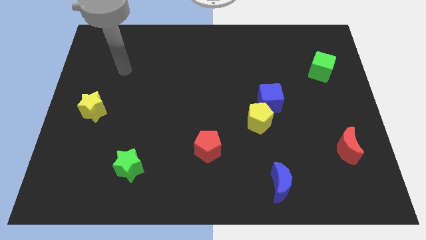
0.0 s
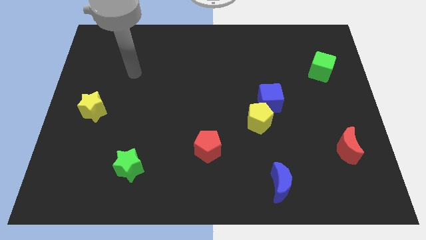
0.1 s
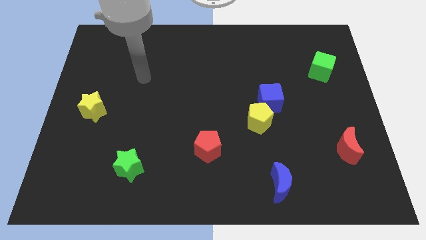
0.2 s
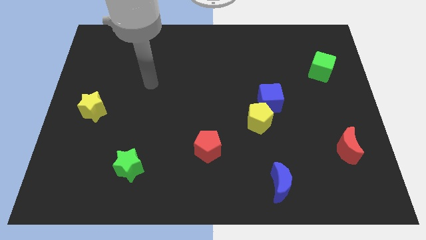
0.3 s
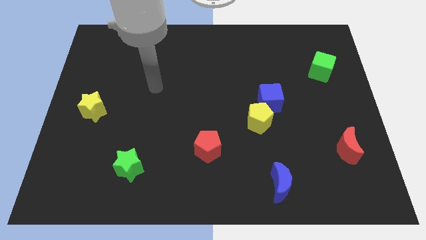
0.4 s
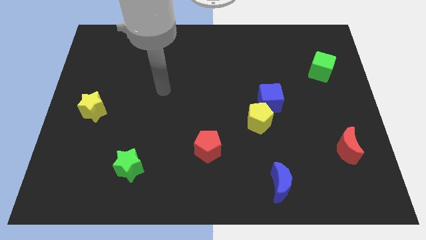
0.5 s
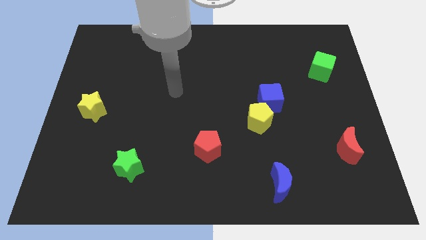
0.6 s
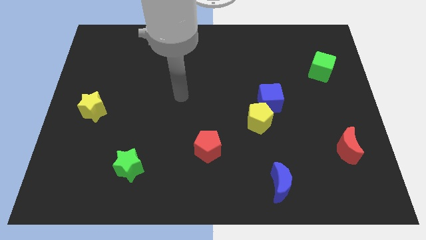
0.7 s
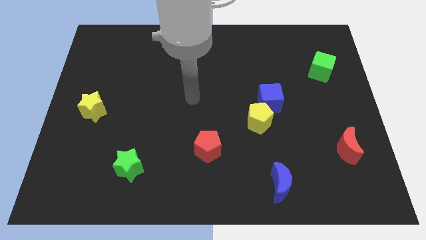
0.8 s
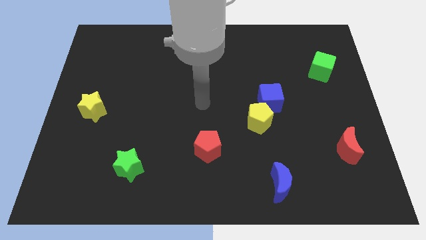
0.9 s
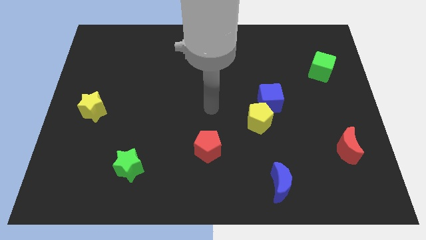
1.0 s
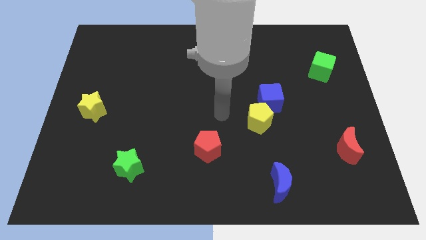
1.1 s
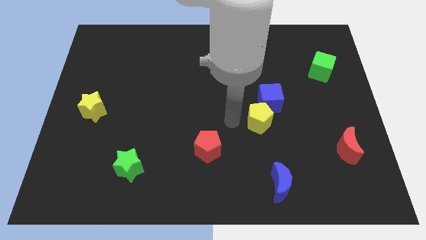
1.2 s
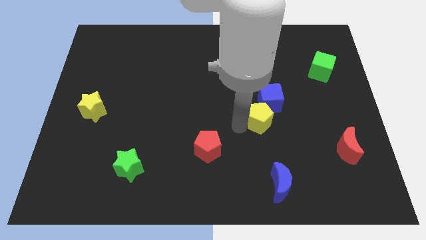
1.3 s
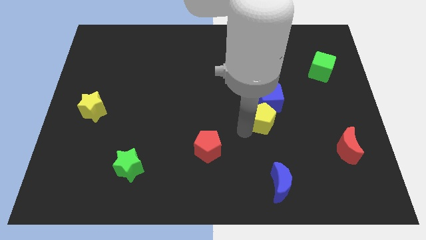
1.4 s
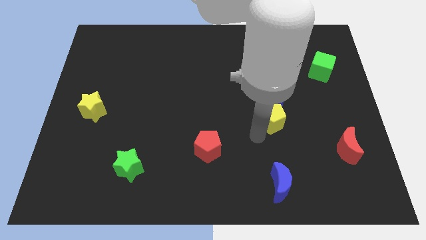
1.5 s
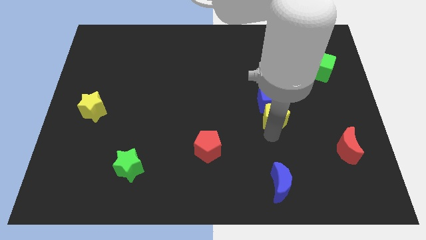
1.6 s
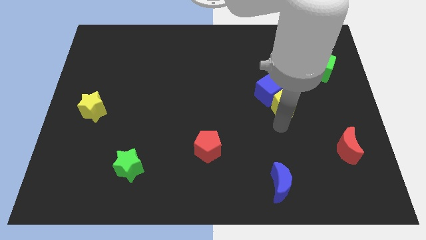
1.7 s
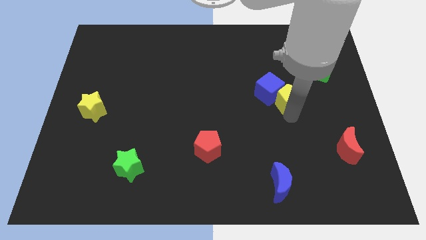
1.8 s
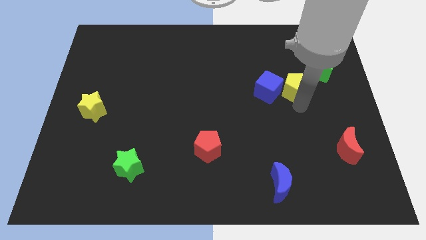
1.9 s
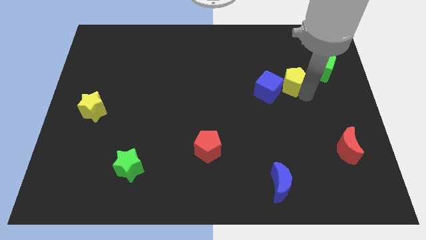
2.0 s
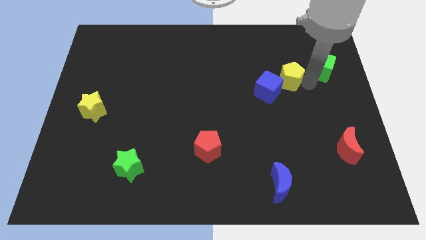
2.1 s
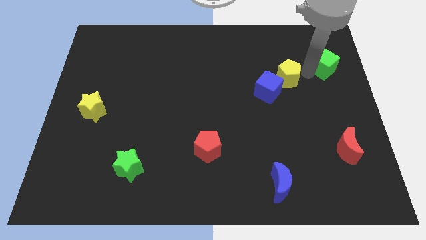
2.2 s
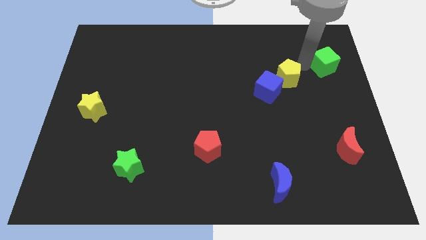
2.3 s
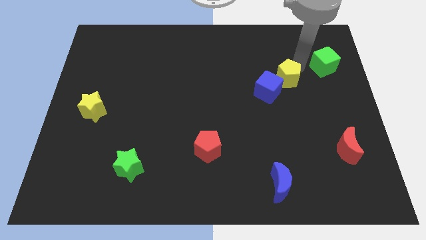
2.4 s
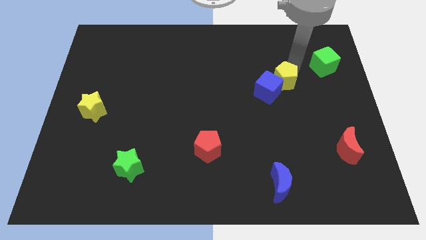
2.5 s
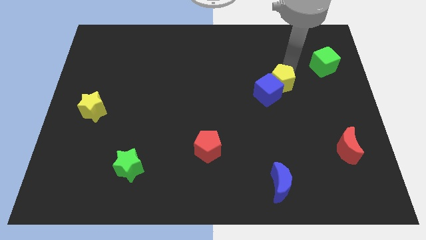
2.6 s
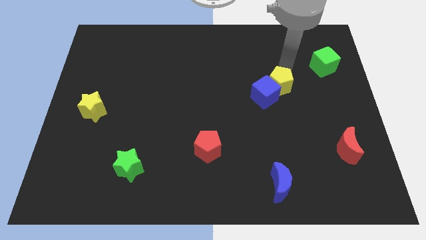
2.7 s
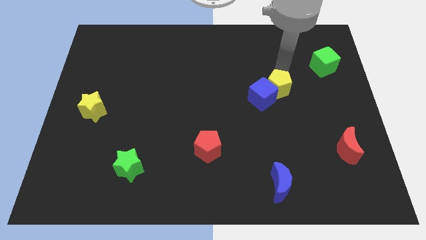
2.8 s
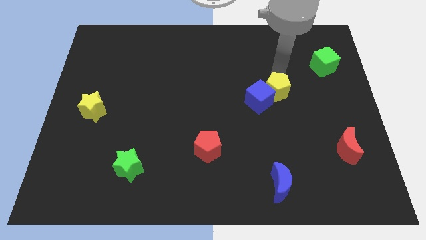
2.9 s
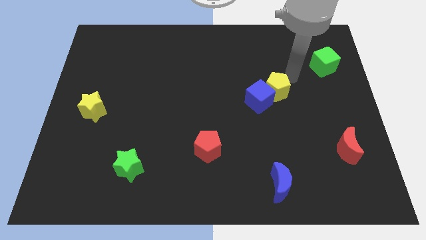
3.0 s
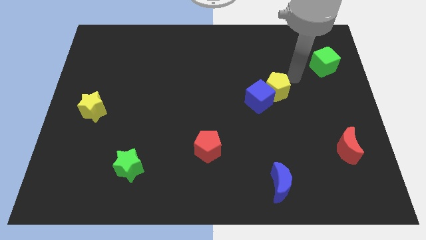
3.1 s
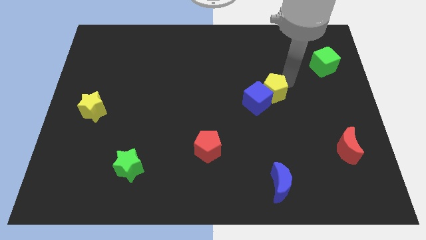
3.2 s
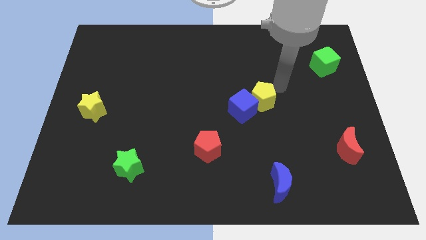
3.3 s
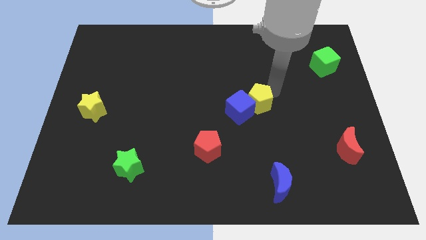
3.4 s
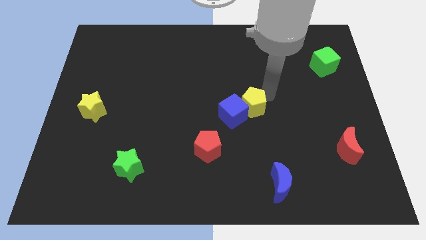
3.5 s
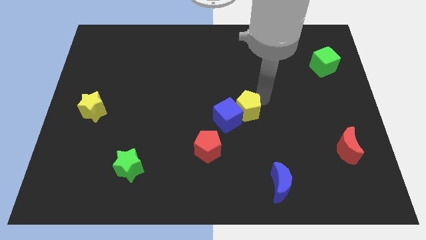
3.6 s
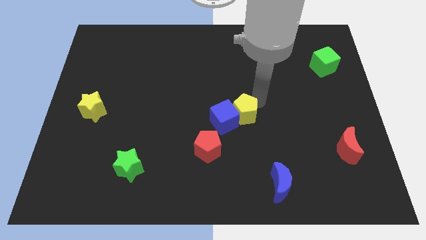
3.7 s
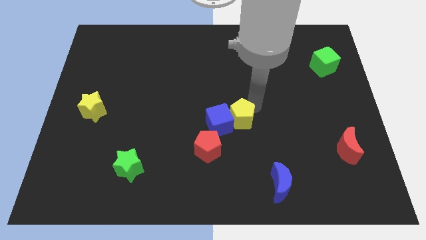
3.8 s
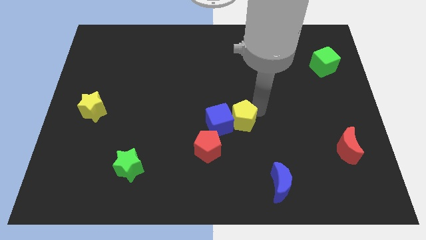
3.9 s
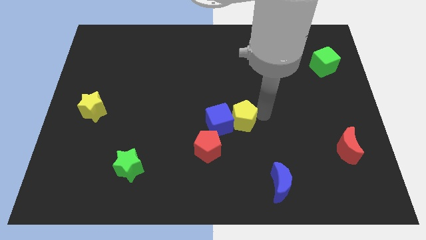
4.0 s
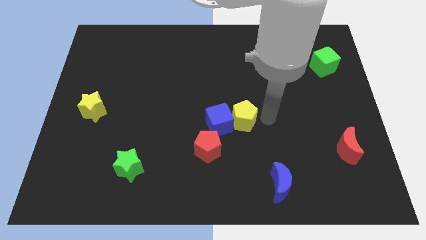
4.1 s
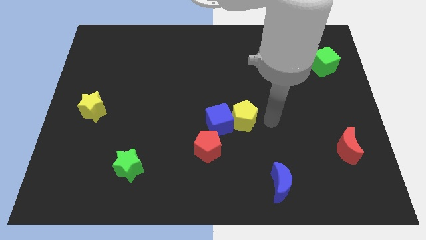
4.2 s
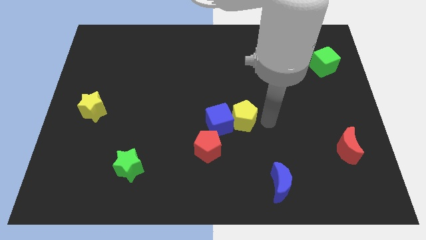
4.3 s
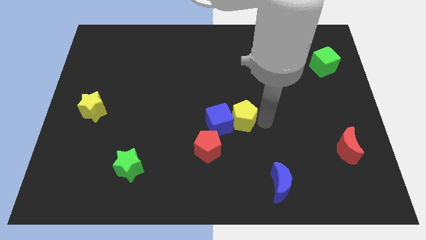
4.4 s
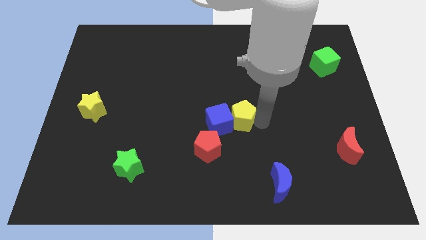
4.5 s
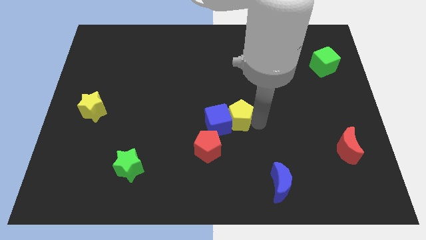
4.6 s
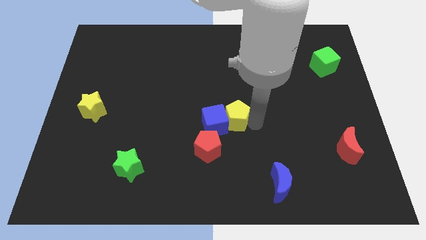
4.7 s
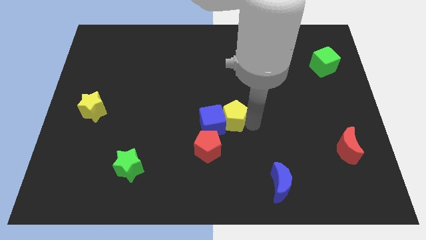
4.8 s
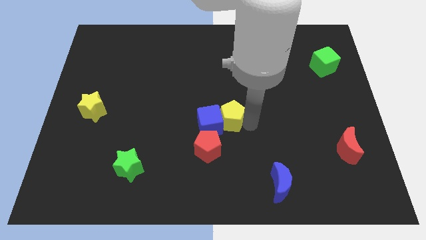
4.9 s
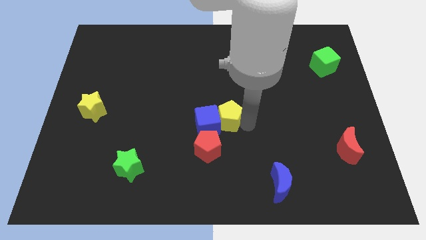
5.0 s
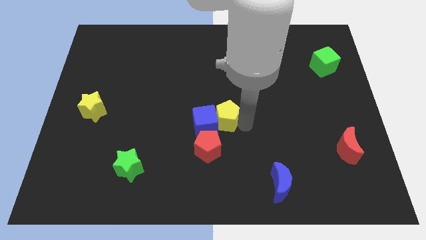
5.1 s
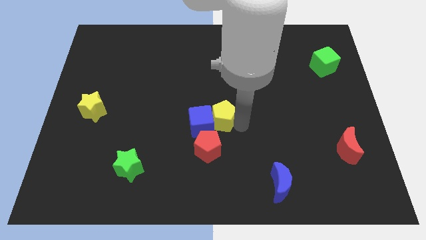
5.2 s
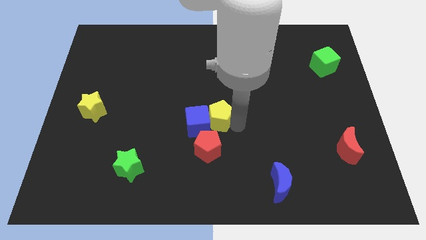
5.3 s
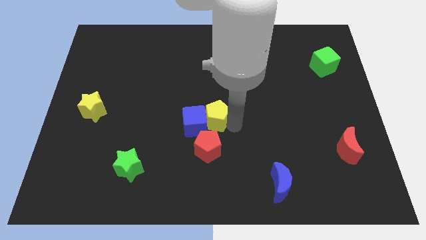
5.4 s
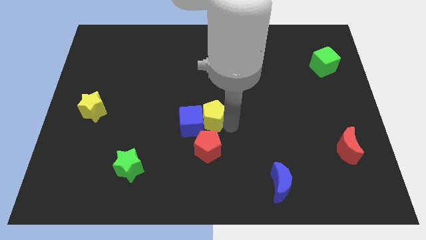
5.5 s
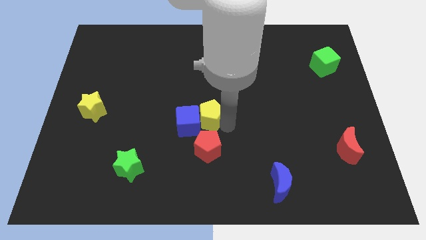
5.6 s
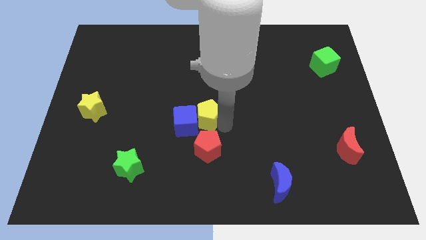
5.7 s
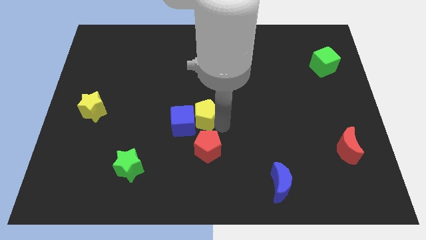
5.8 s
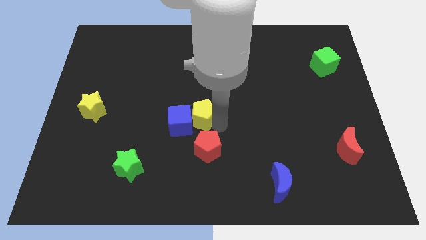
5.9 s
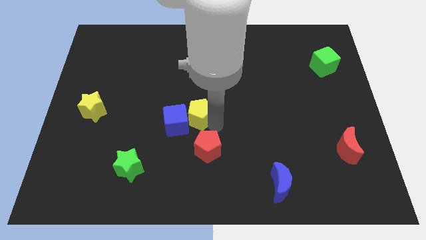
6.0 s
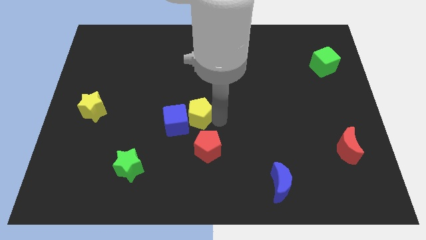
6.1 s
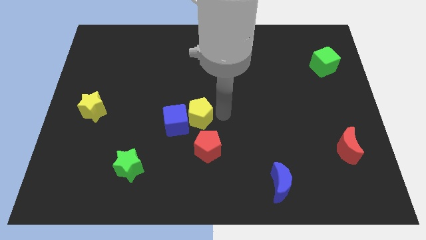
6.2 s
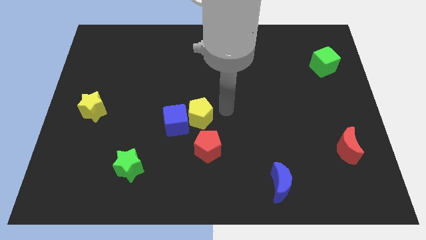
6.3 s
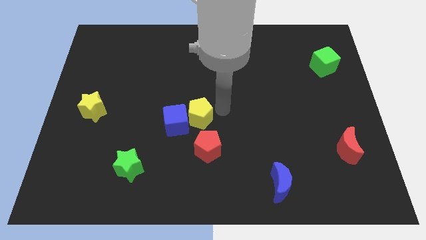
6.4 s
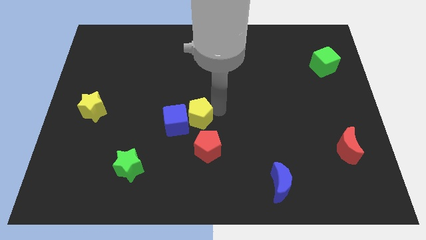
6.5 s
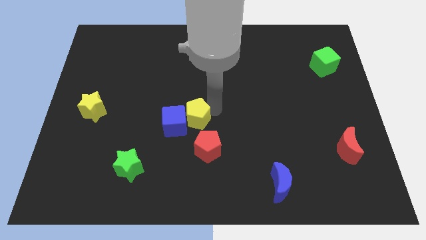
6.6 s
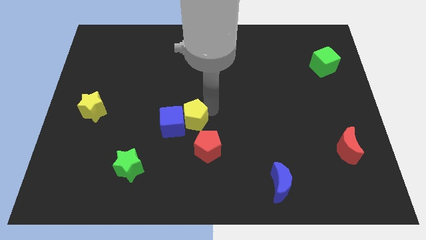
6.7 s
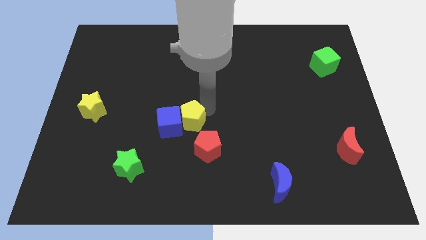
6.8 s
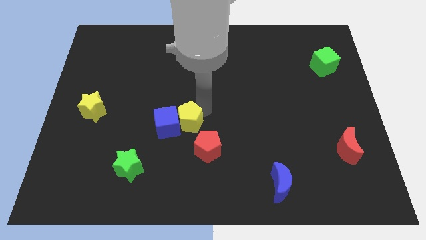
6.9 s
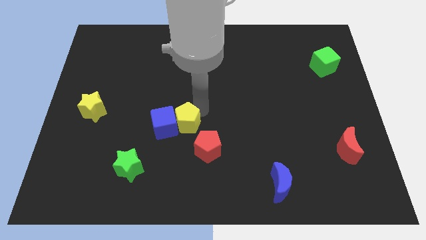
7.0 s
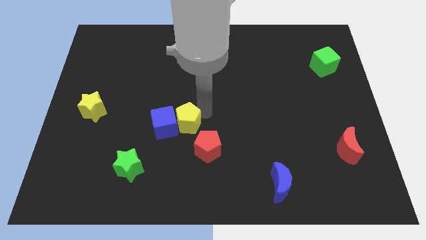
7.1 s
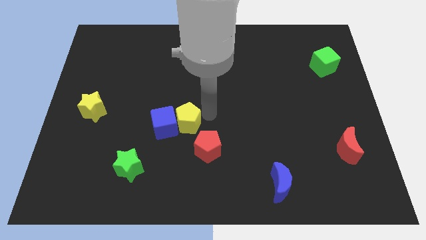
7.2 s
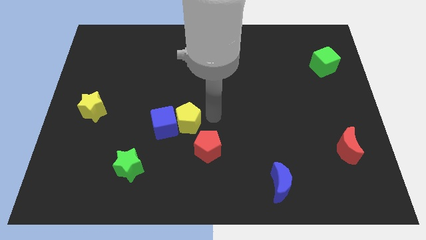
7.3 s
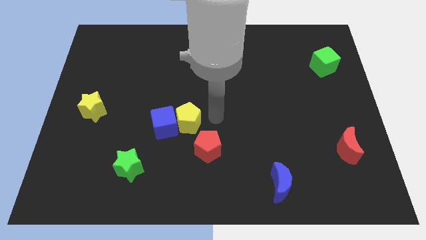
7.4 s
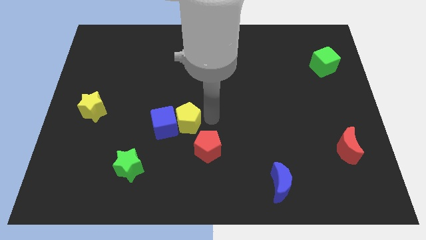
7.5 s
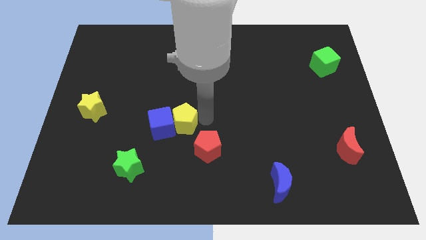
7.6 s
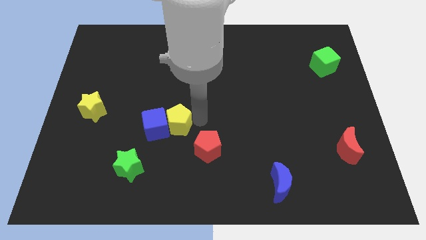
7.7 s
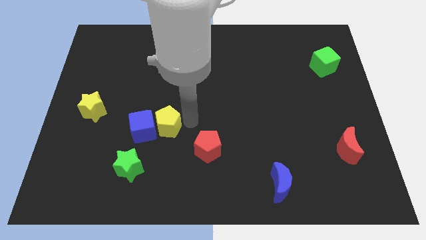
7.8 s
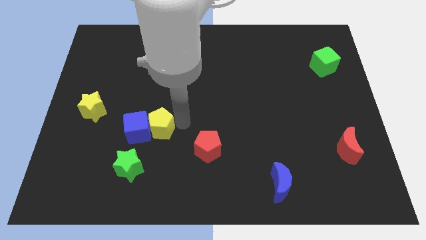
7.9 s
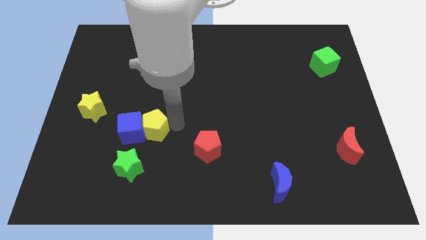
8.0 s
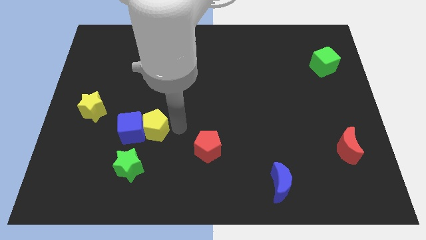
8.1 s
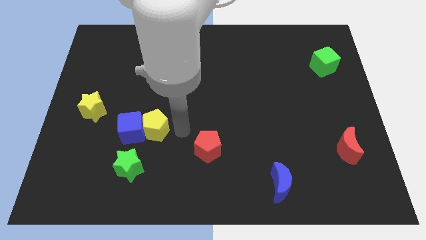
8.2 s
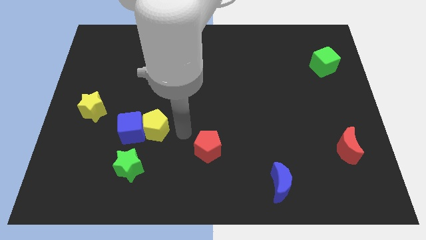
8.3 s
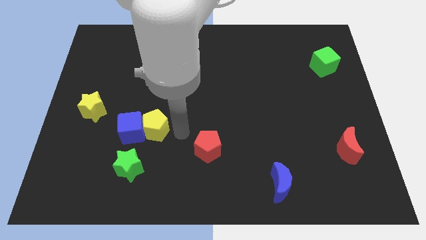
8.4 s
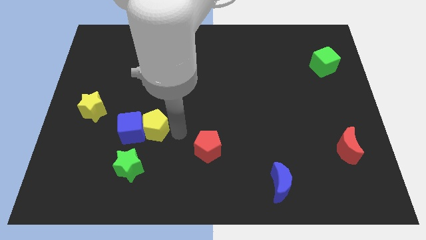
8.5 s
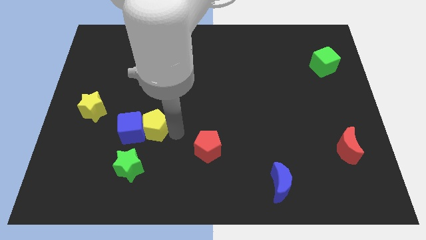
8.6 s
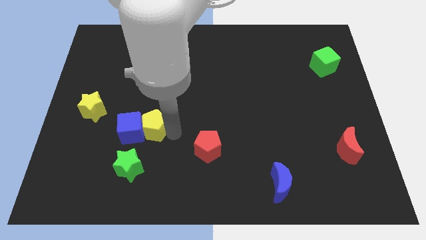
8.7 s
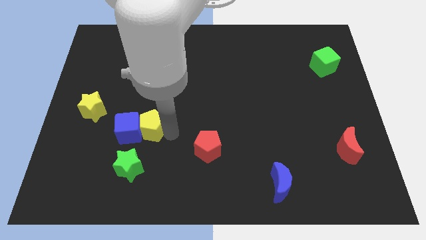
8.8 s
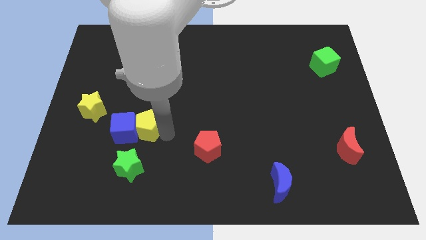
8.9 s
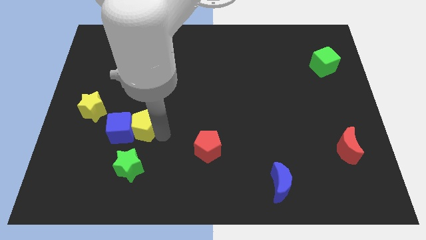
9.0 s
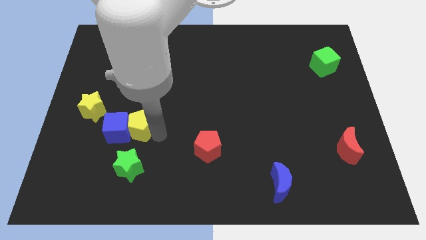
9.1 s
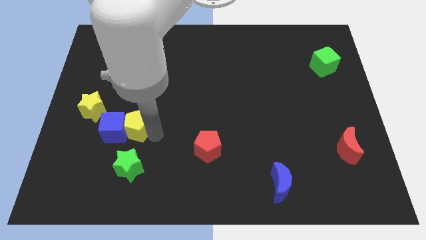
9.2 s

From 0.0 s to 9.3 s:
move the yellow pentagon diagonally down and to the right of the yellow star
